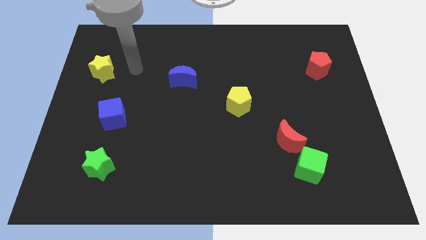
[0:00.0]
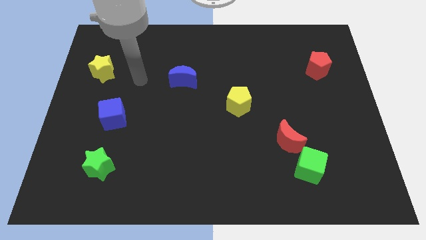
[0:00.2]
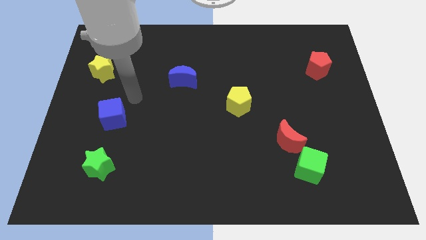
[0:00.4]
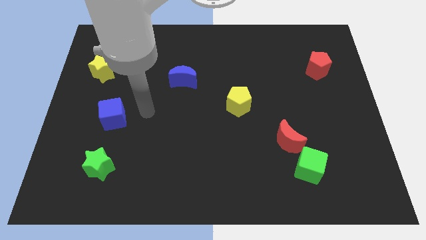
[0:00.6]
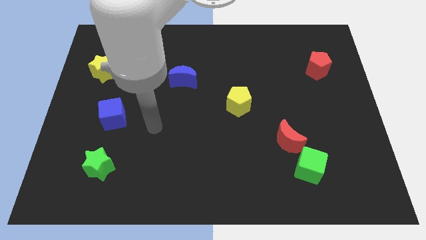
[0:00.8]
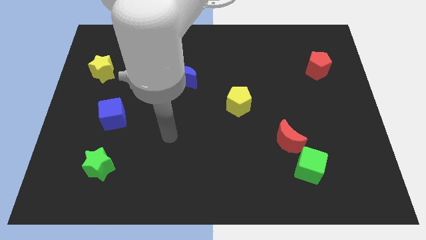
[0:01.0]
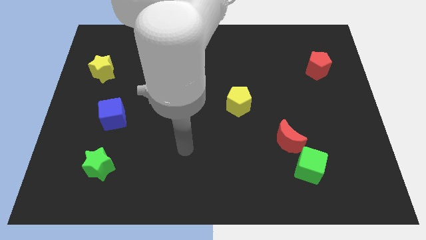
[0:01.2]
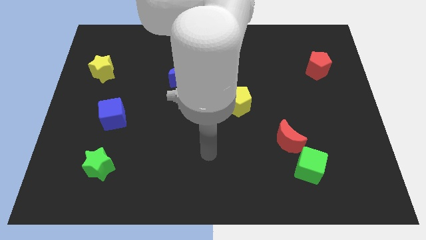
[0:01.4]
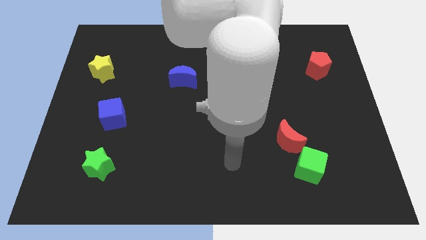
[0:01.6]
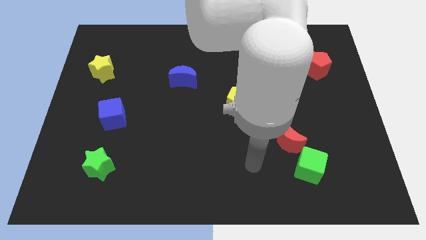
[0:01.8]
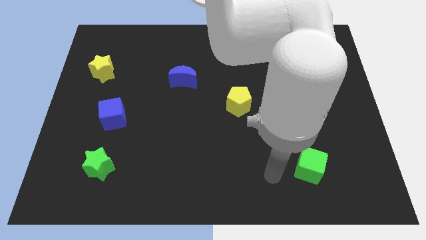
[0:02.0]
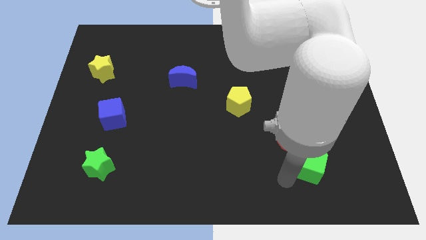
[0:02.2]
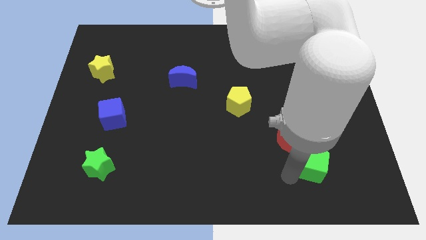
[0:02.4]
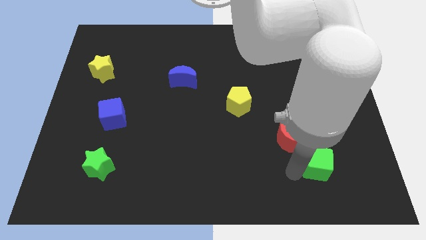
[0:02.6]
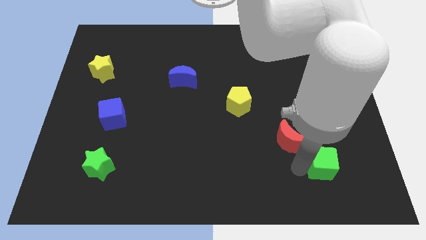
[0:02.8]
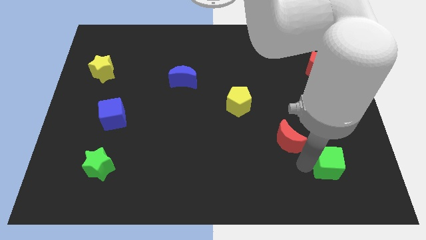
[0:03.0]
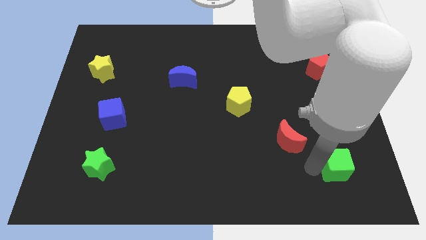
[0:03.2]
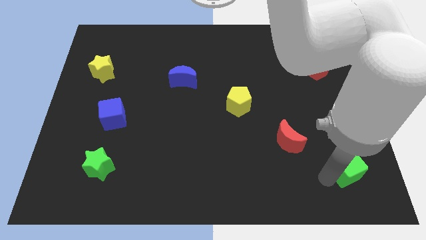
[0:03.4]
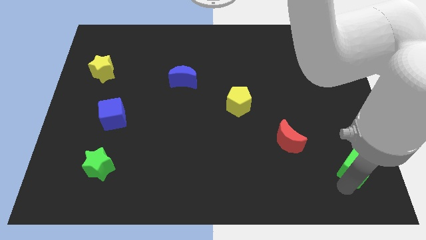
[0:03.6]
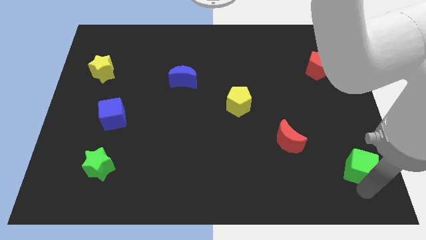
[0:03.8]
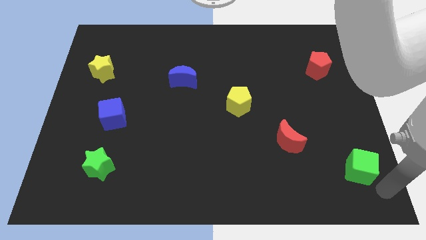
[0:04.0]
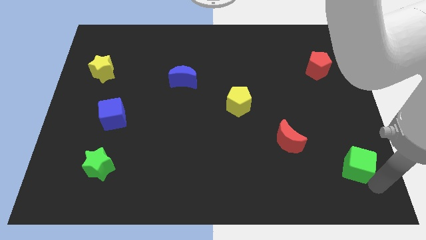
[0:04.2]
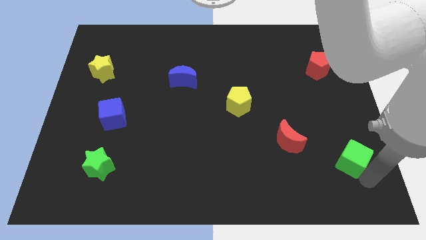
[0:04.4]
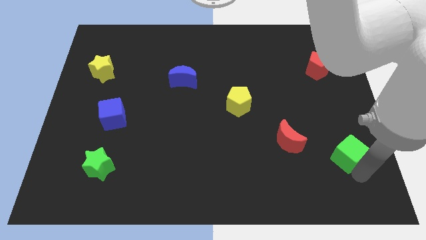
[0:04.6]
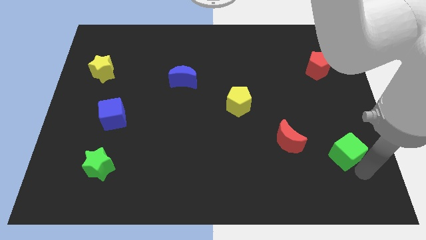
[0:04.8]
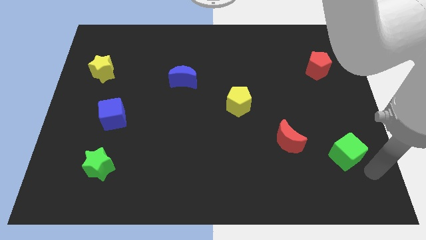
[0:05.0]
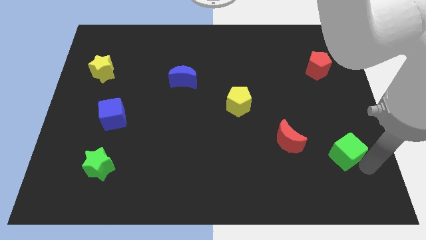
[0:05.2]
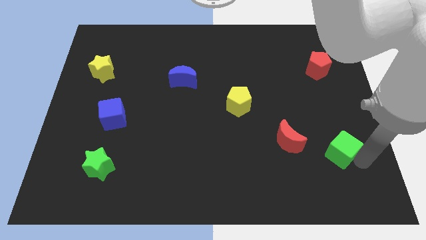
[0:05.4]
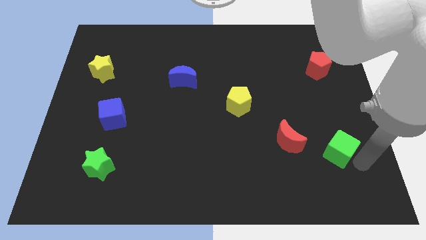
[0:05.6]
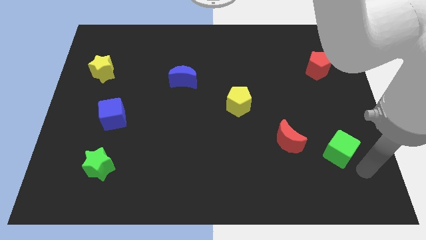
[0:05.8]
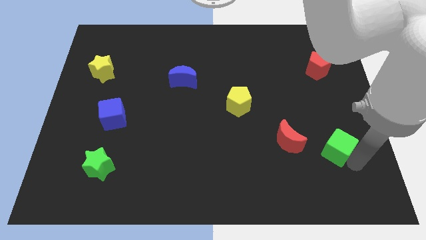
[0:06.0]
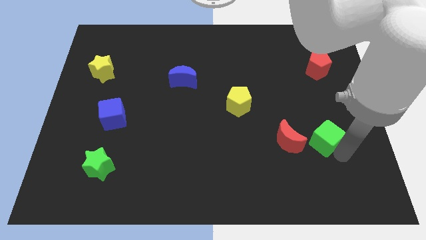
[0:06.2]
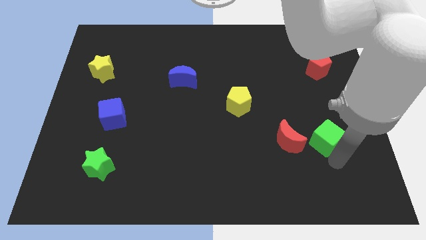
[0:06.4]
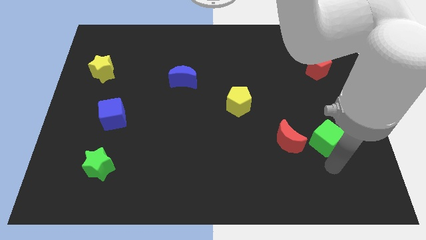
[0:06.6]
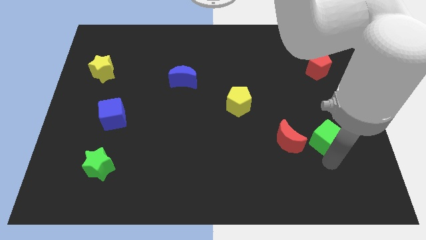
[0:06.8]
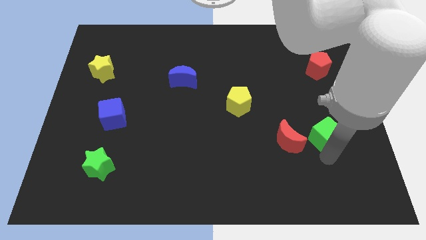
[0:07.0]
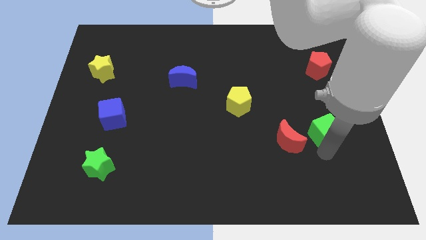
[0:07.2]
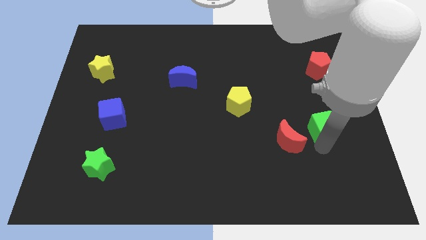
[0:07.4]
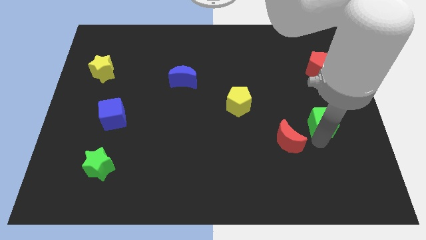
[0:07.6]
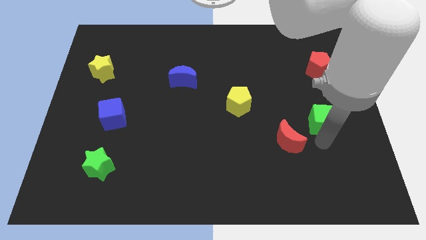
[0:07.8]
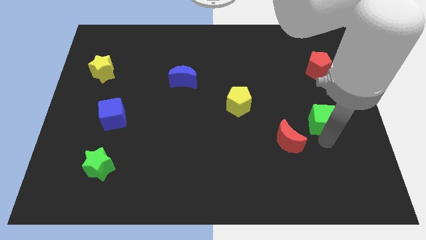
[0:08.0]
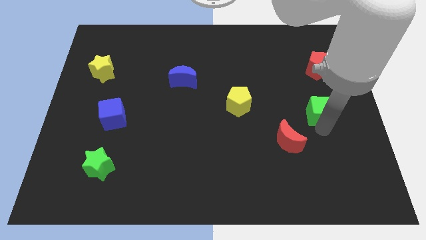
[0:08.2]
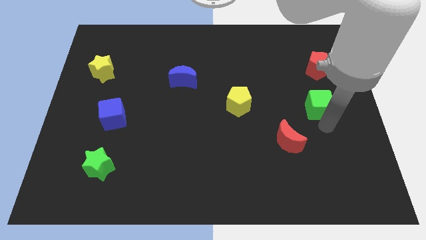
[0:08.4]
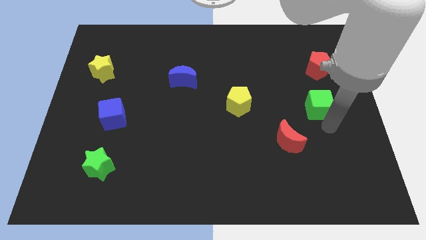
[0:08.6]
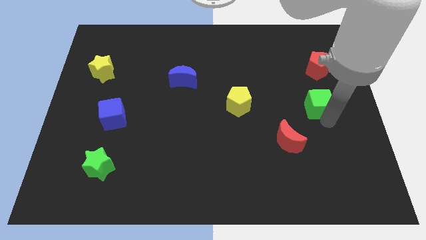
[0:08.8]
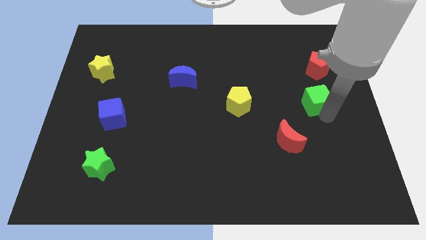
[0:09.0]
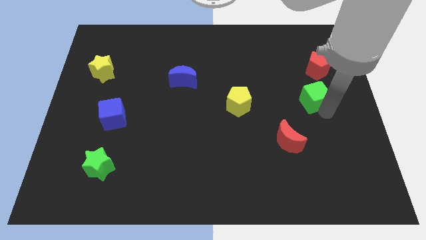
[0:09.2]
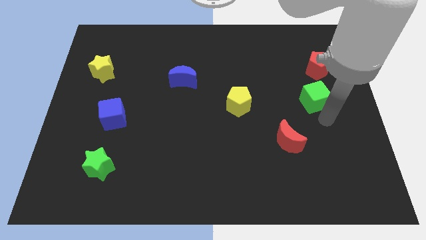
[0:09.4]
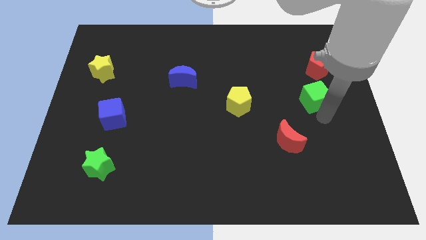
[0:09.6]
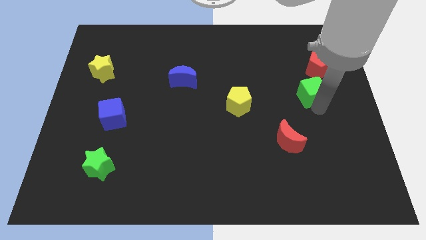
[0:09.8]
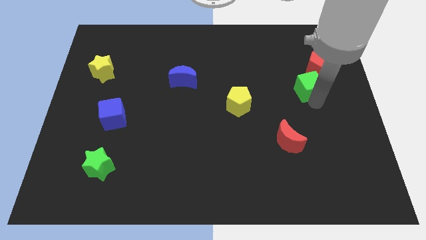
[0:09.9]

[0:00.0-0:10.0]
slide the green cube upwards

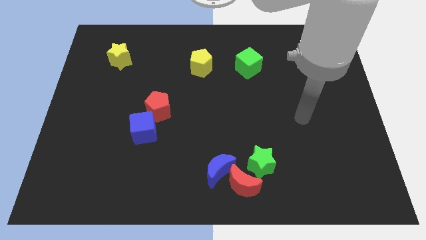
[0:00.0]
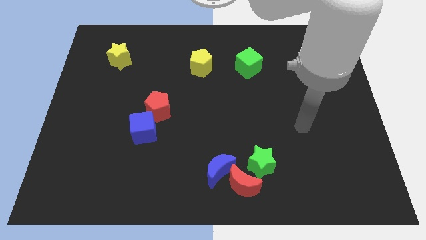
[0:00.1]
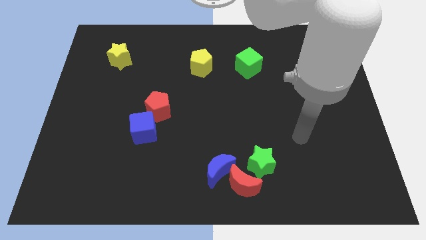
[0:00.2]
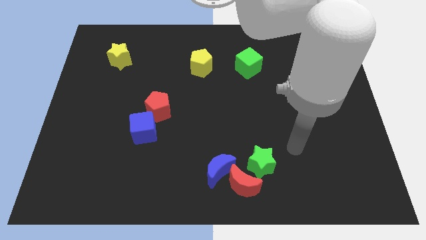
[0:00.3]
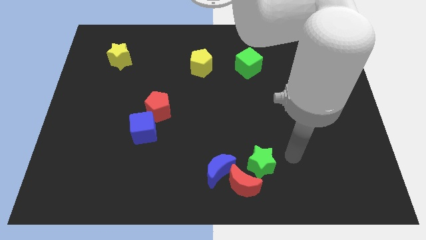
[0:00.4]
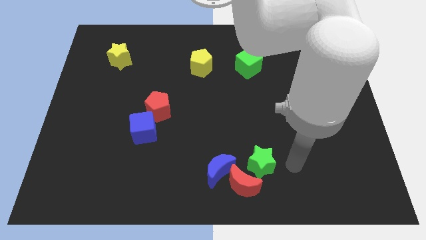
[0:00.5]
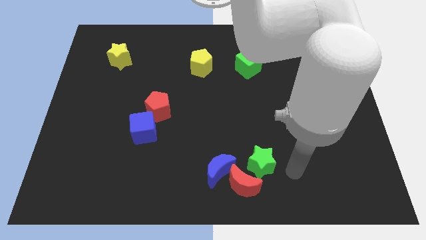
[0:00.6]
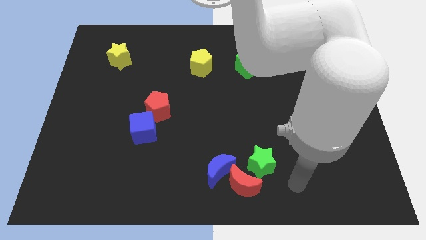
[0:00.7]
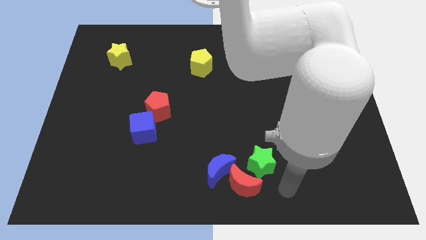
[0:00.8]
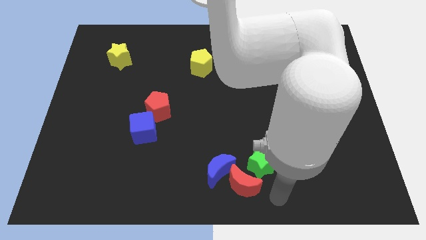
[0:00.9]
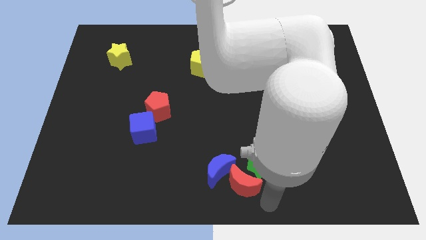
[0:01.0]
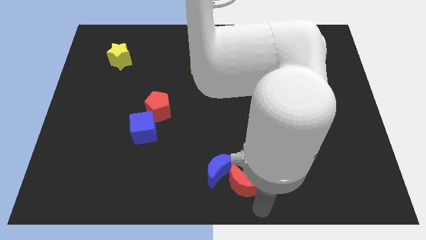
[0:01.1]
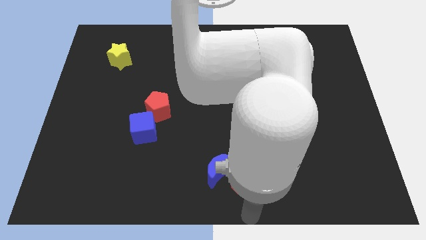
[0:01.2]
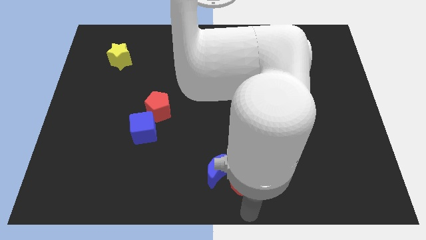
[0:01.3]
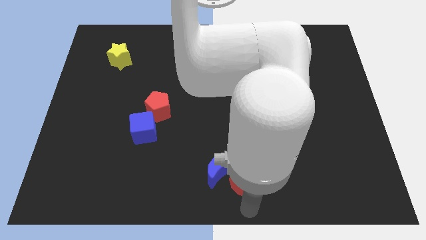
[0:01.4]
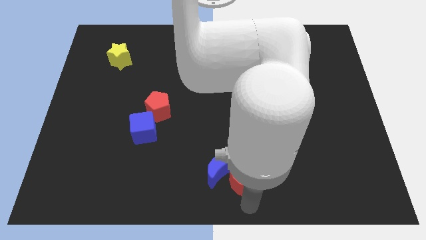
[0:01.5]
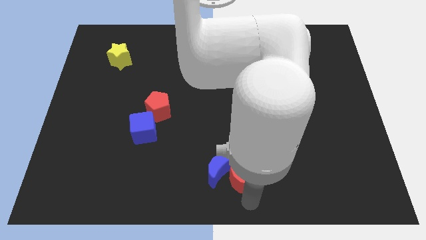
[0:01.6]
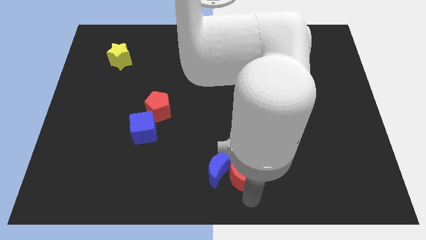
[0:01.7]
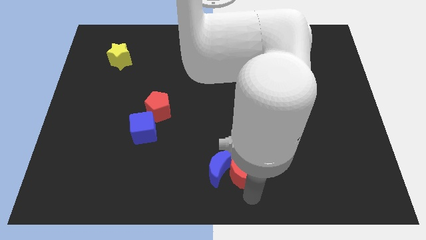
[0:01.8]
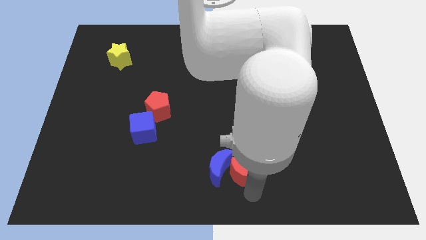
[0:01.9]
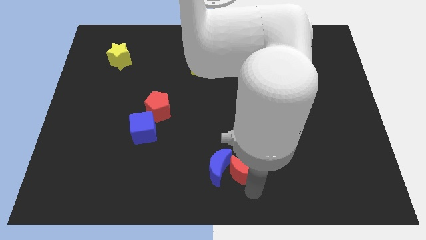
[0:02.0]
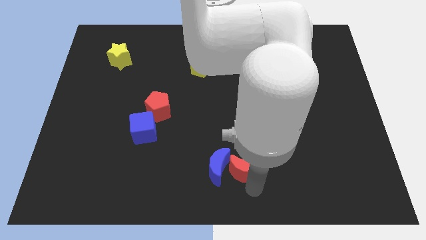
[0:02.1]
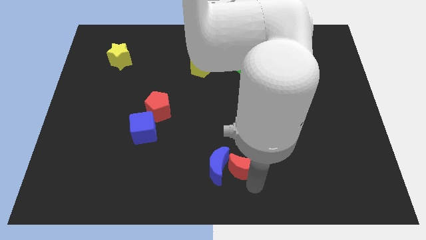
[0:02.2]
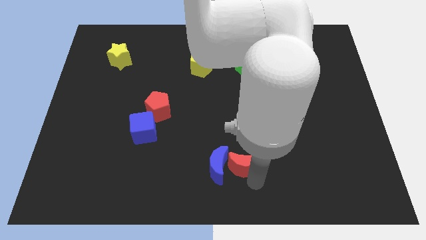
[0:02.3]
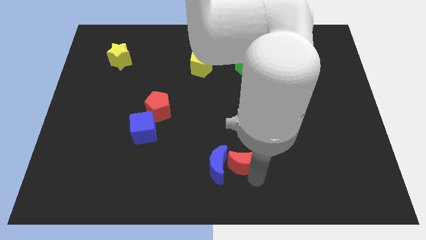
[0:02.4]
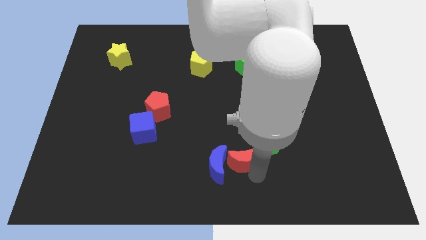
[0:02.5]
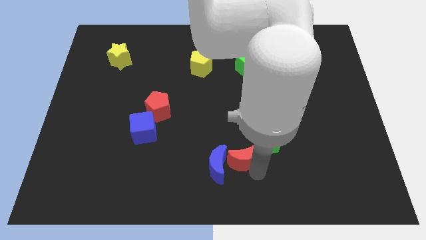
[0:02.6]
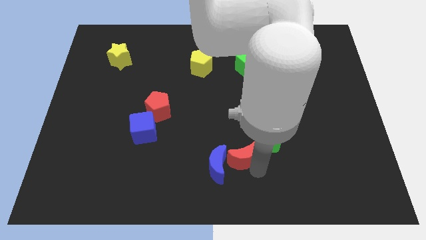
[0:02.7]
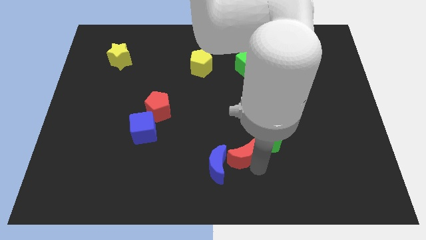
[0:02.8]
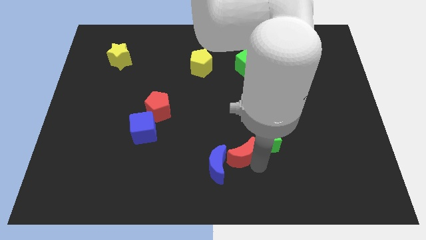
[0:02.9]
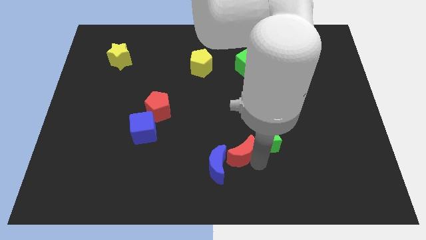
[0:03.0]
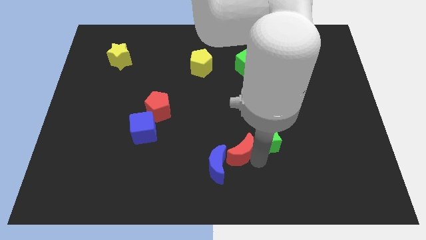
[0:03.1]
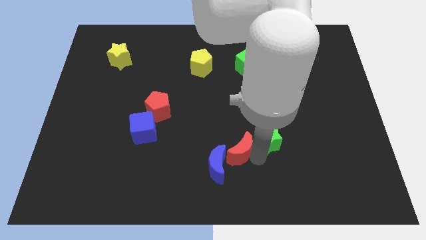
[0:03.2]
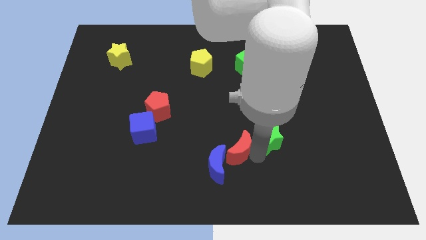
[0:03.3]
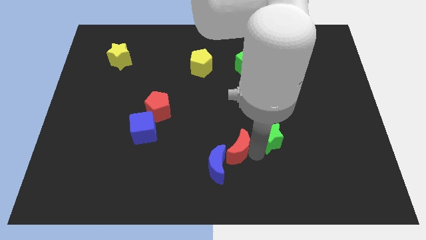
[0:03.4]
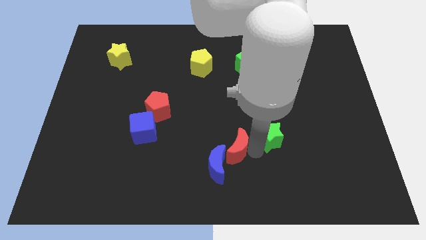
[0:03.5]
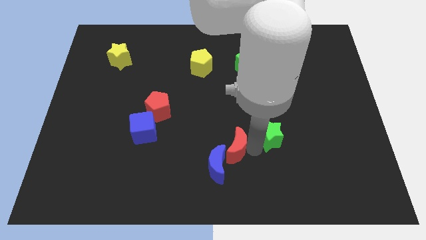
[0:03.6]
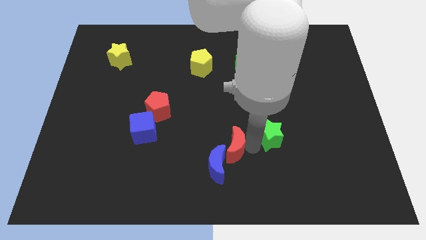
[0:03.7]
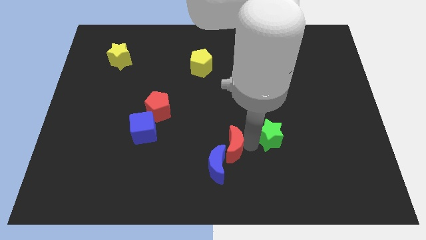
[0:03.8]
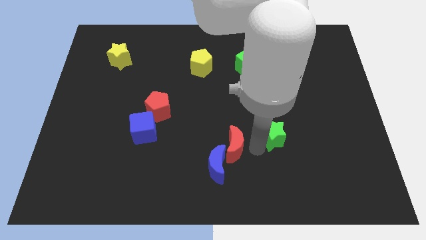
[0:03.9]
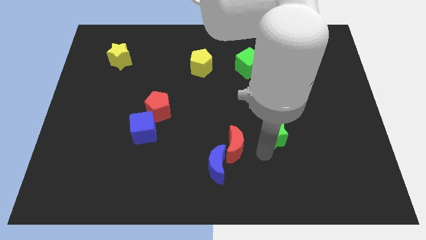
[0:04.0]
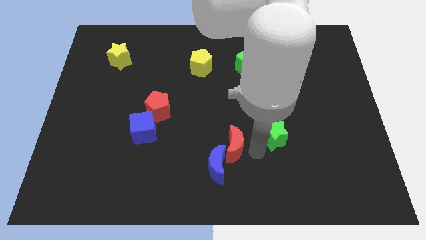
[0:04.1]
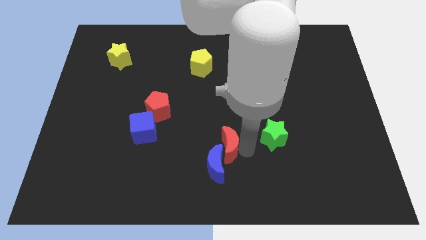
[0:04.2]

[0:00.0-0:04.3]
move the red moon up and left diagonally slightly
